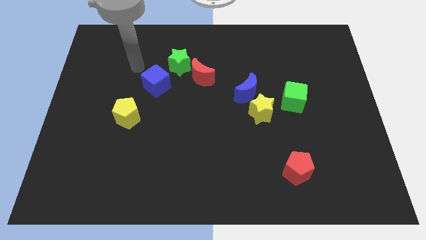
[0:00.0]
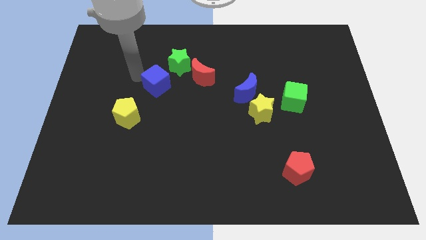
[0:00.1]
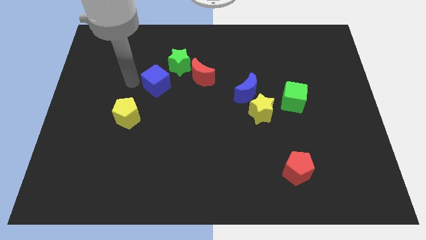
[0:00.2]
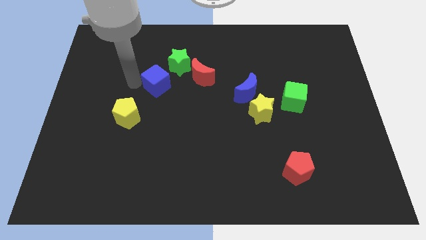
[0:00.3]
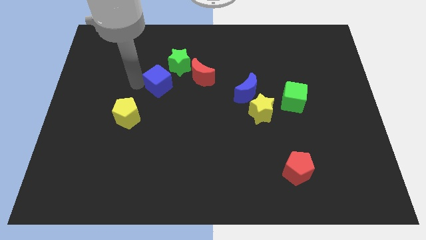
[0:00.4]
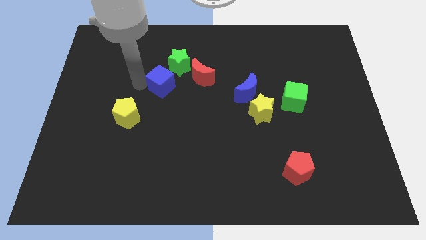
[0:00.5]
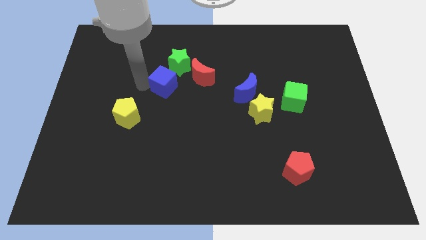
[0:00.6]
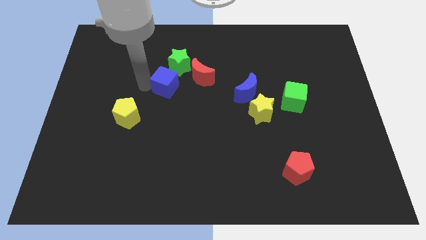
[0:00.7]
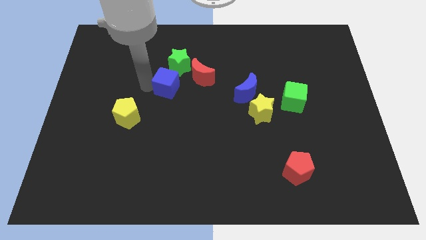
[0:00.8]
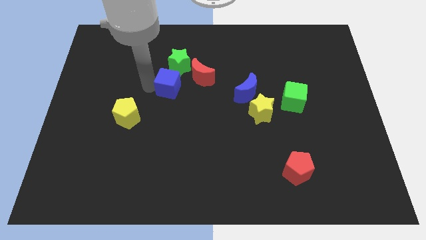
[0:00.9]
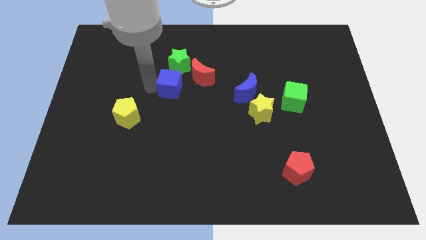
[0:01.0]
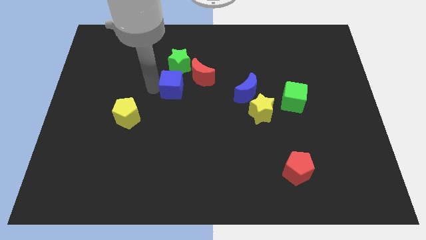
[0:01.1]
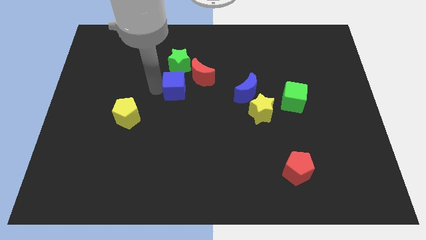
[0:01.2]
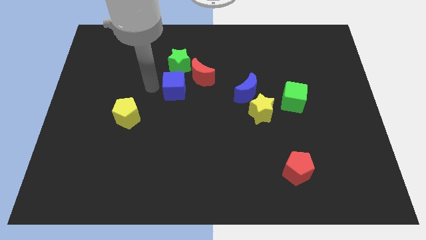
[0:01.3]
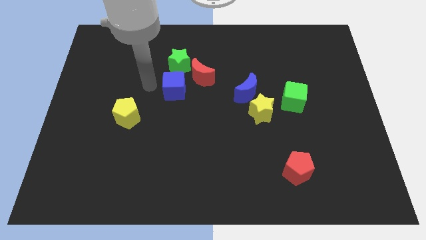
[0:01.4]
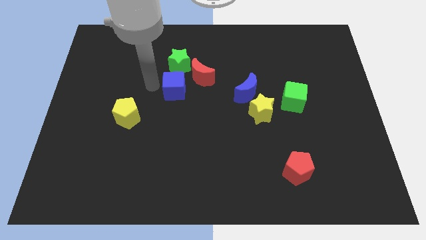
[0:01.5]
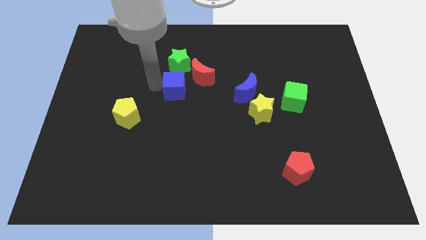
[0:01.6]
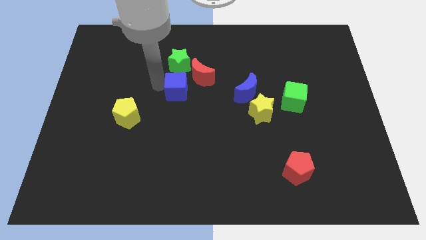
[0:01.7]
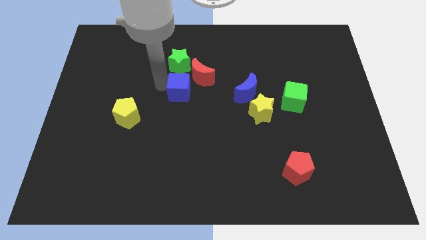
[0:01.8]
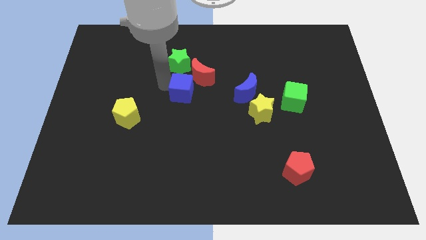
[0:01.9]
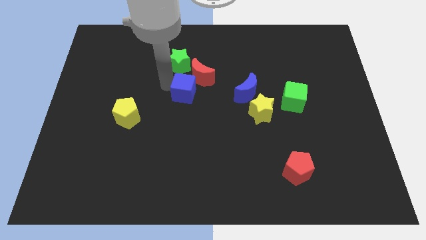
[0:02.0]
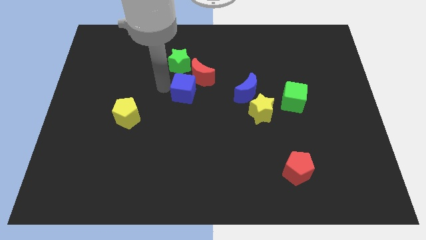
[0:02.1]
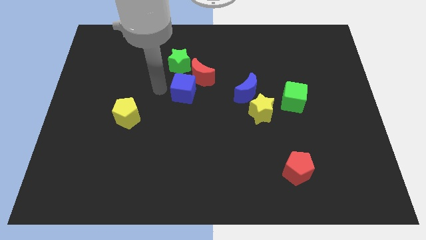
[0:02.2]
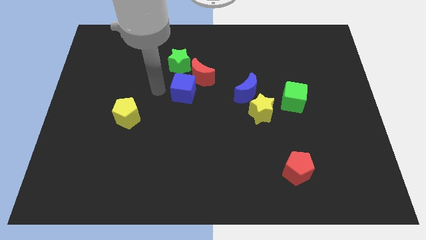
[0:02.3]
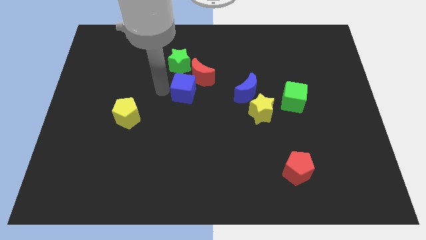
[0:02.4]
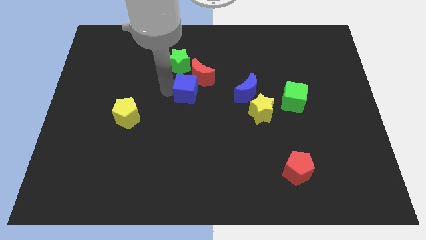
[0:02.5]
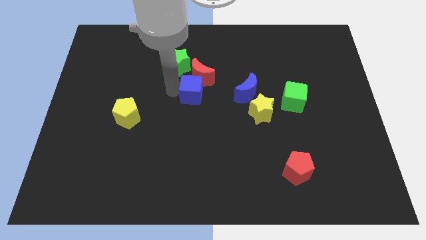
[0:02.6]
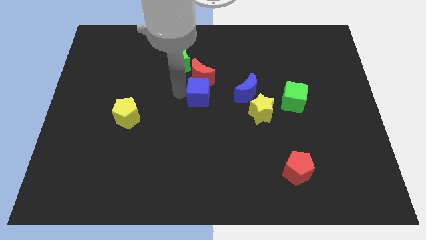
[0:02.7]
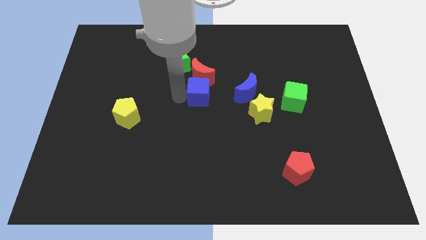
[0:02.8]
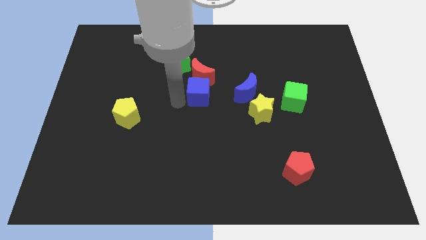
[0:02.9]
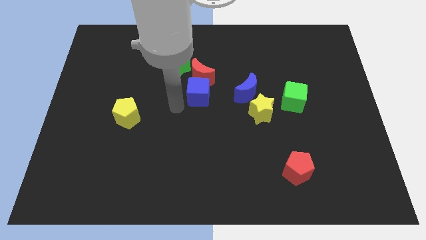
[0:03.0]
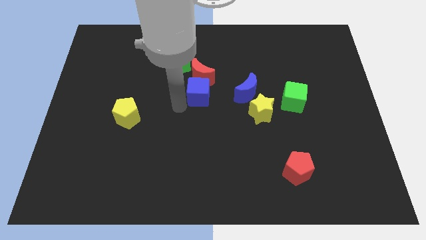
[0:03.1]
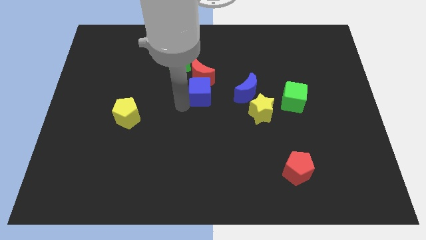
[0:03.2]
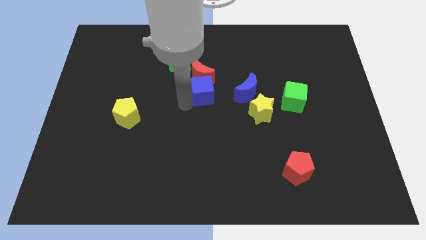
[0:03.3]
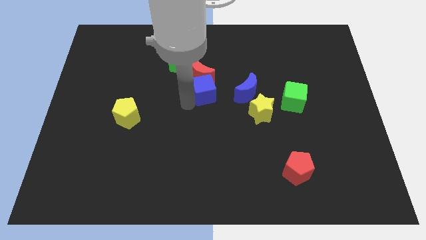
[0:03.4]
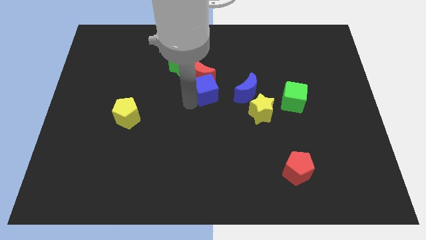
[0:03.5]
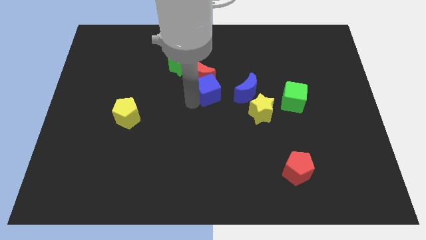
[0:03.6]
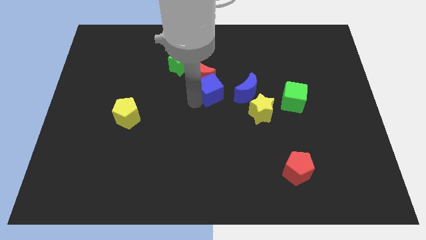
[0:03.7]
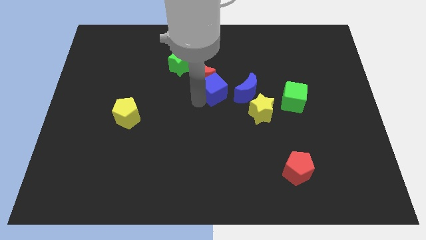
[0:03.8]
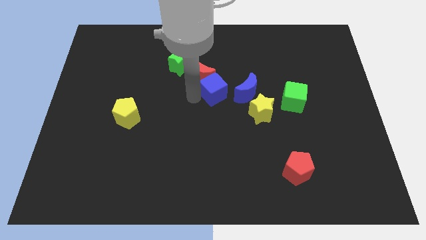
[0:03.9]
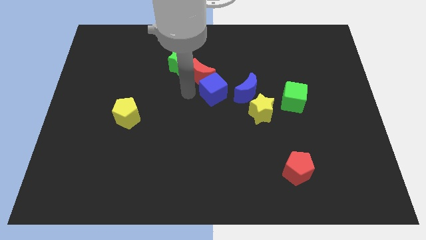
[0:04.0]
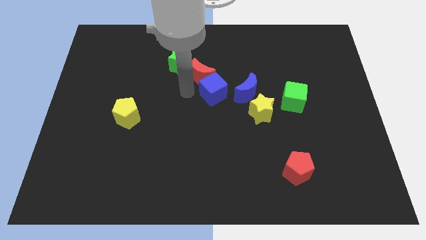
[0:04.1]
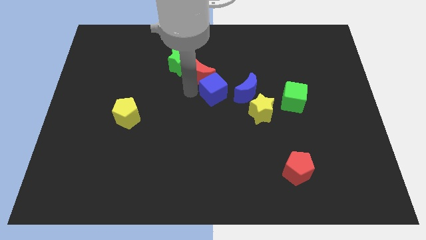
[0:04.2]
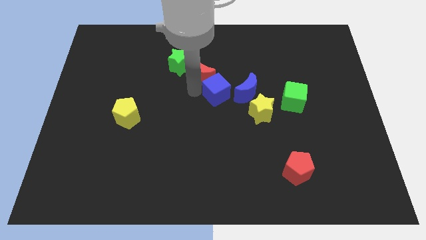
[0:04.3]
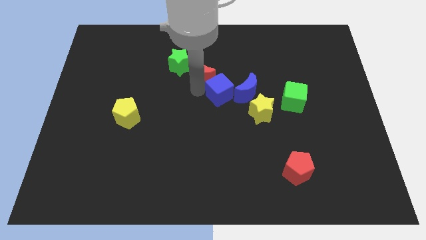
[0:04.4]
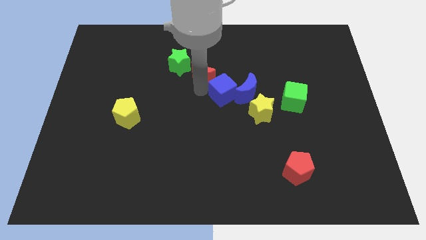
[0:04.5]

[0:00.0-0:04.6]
slide the blue cube close to the blue moon

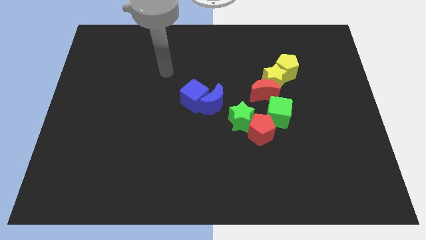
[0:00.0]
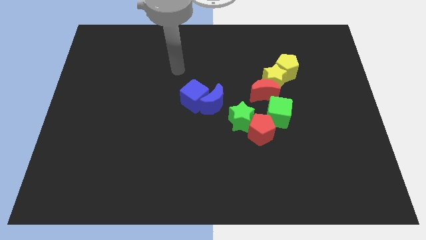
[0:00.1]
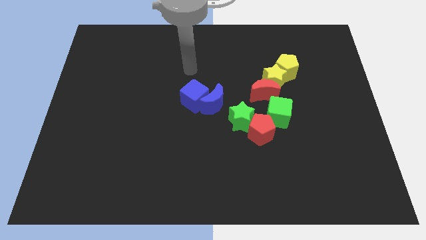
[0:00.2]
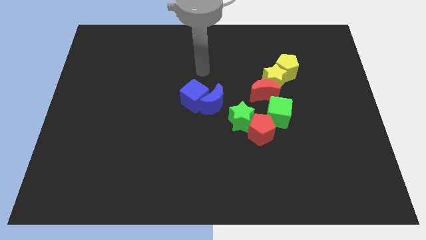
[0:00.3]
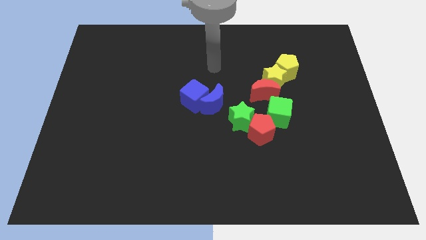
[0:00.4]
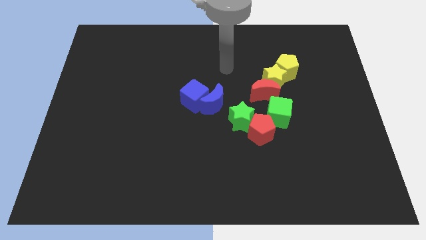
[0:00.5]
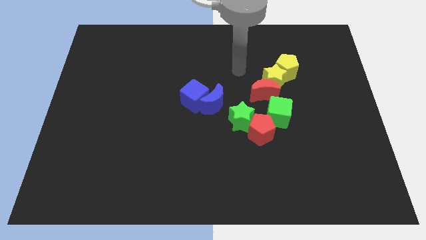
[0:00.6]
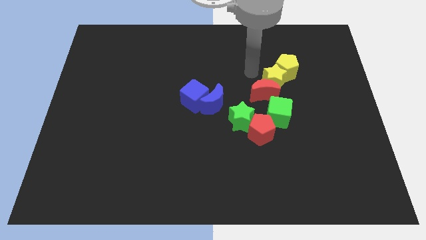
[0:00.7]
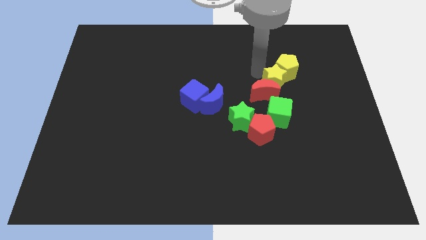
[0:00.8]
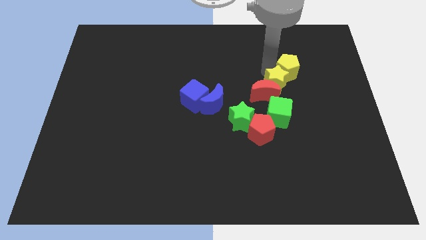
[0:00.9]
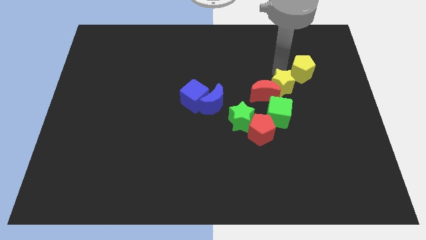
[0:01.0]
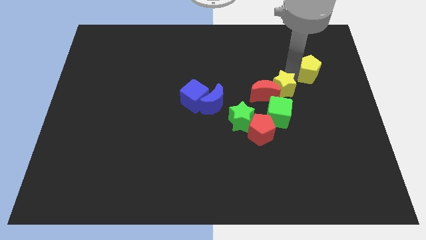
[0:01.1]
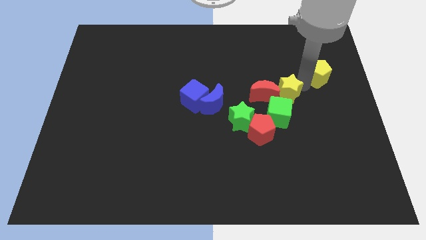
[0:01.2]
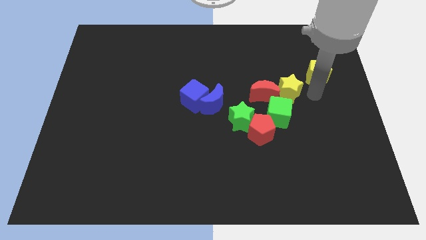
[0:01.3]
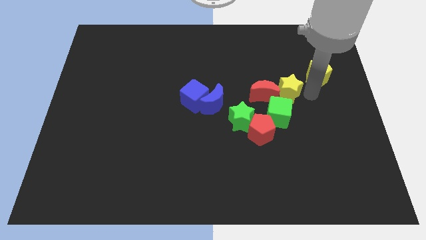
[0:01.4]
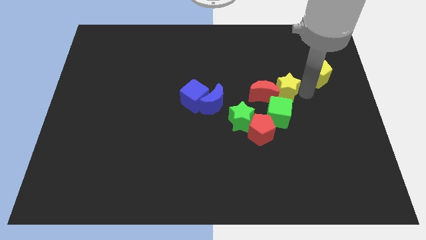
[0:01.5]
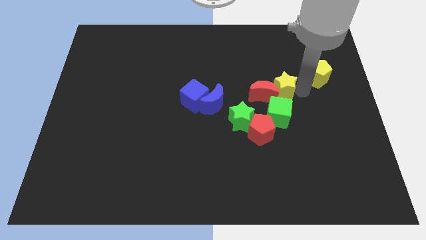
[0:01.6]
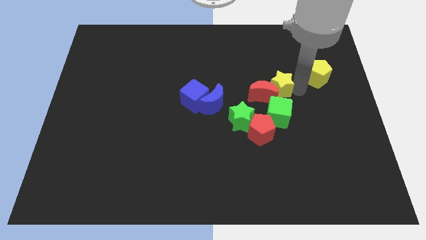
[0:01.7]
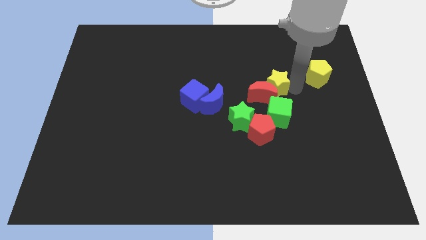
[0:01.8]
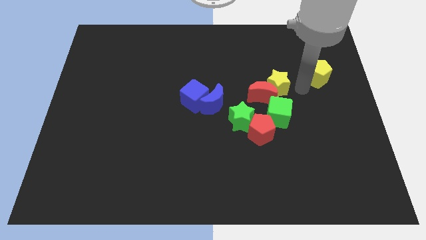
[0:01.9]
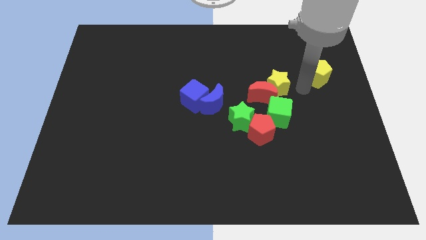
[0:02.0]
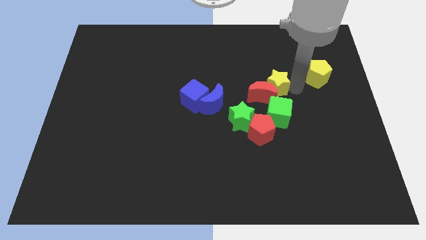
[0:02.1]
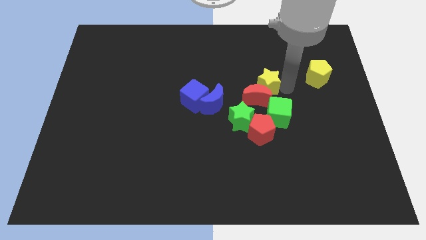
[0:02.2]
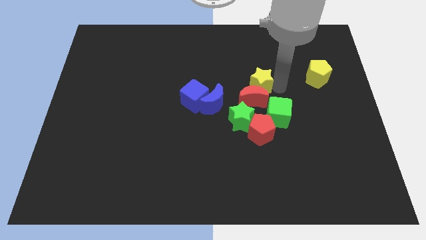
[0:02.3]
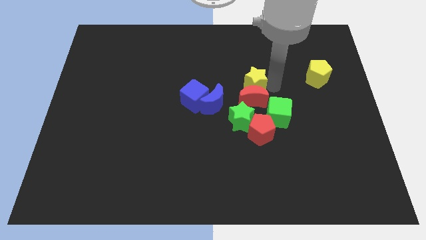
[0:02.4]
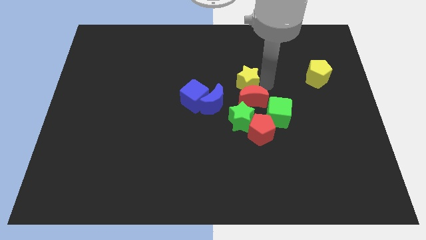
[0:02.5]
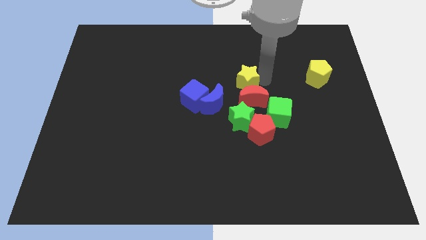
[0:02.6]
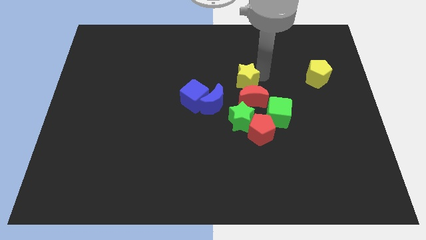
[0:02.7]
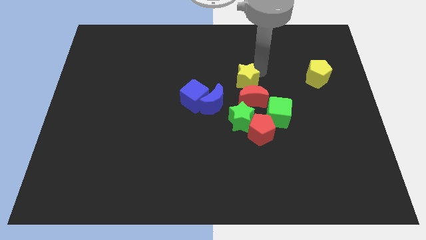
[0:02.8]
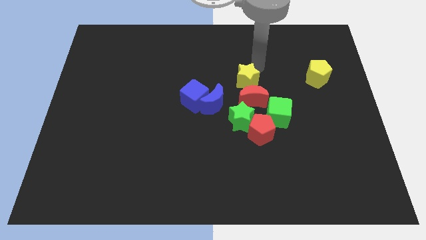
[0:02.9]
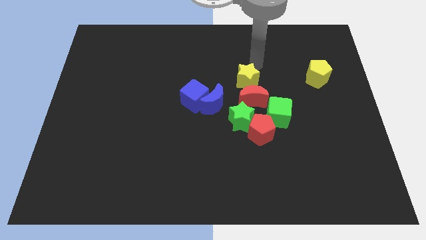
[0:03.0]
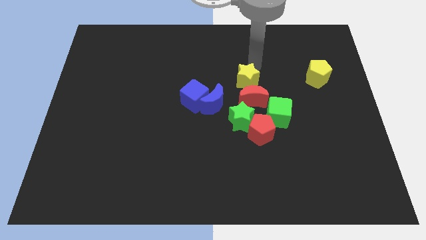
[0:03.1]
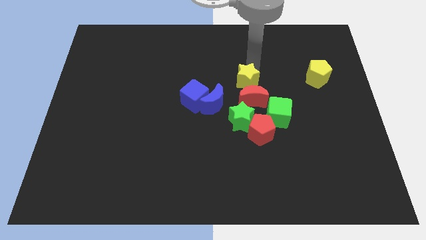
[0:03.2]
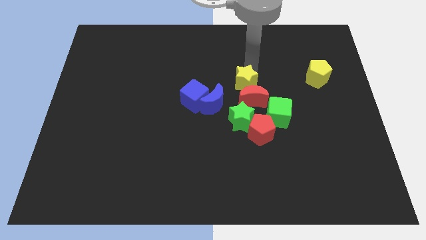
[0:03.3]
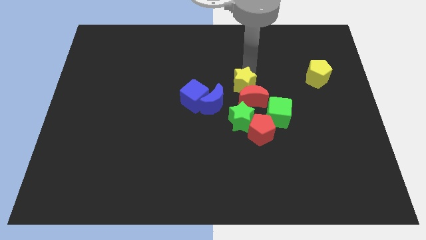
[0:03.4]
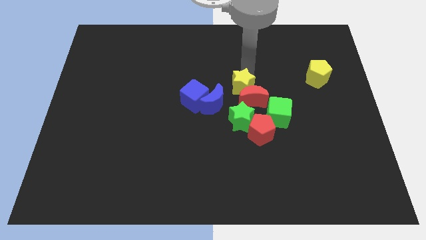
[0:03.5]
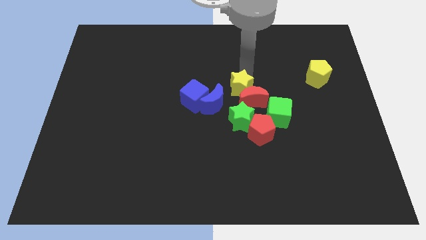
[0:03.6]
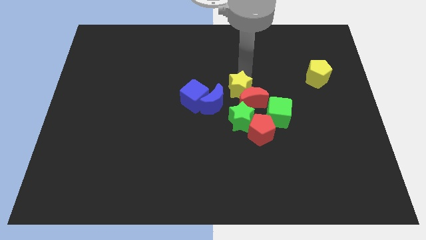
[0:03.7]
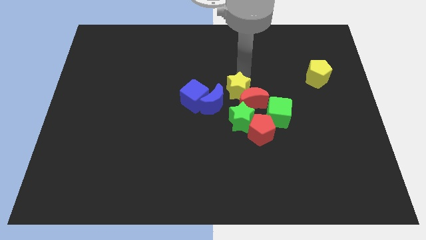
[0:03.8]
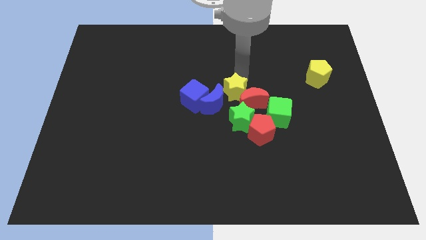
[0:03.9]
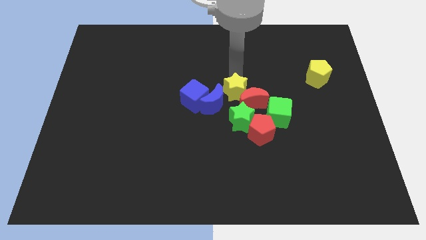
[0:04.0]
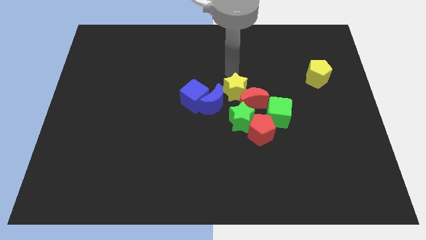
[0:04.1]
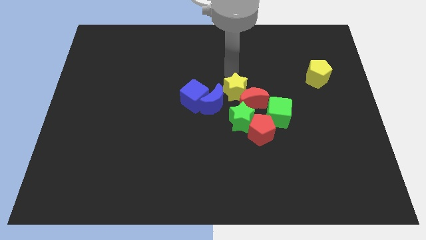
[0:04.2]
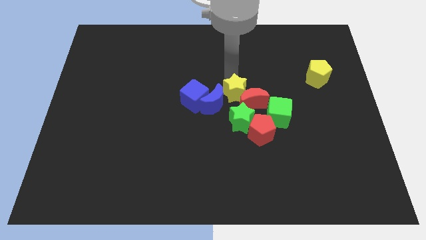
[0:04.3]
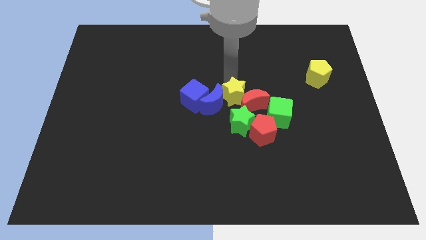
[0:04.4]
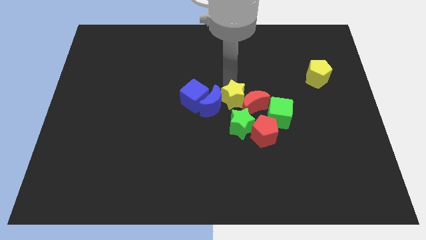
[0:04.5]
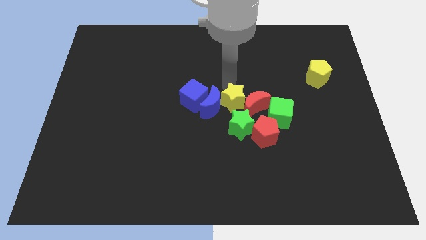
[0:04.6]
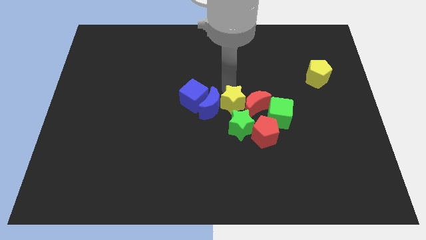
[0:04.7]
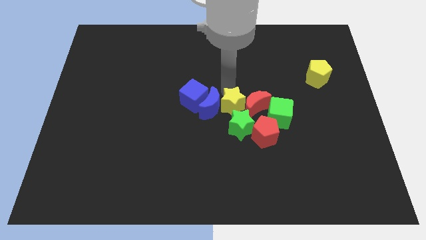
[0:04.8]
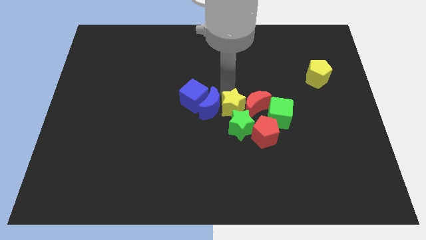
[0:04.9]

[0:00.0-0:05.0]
push the yellow star towards the green star
